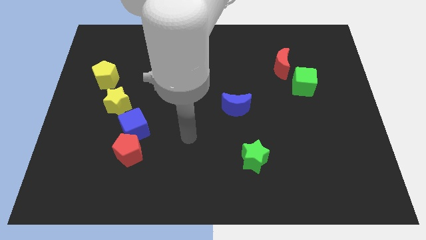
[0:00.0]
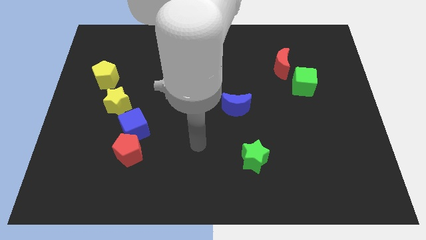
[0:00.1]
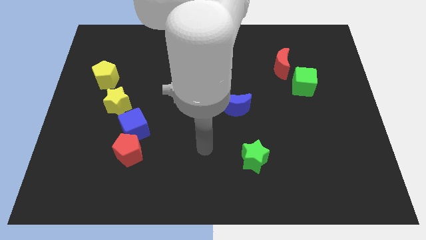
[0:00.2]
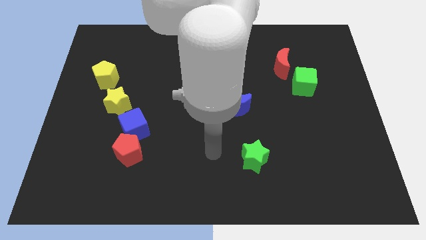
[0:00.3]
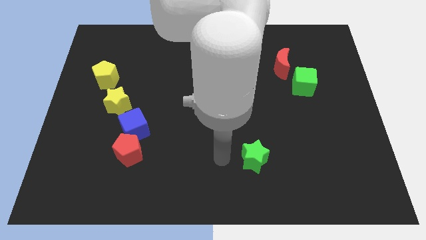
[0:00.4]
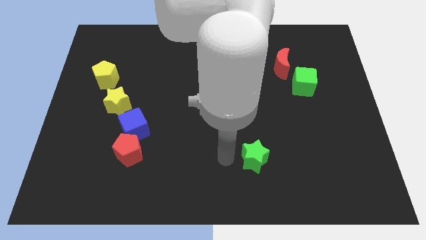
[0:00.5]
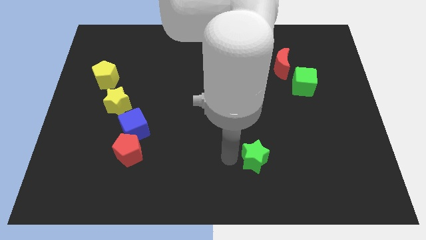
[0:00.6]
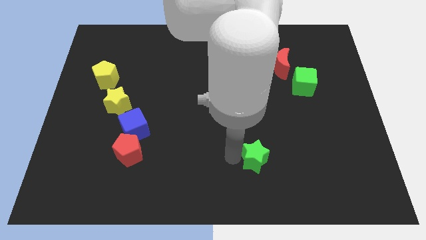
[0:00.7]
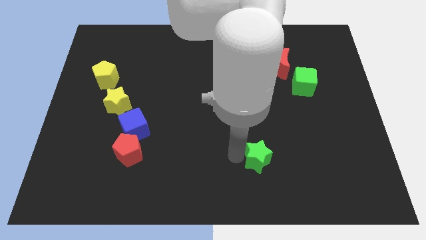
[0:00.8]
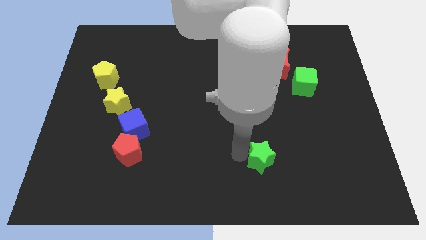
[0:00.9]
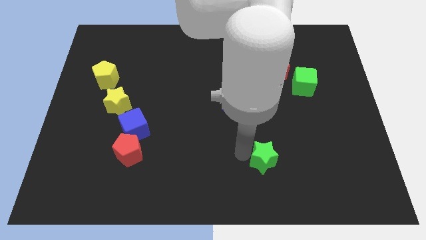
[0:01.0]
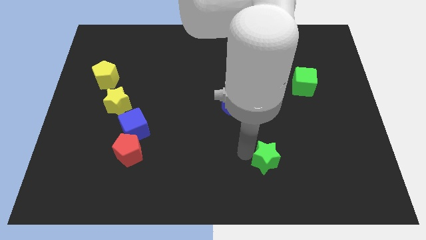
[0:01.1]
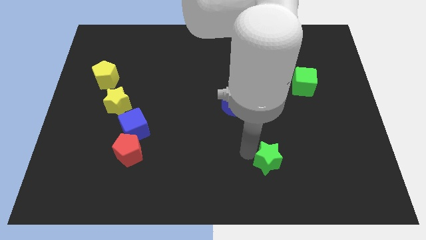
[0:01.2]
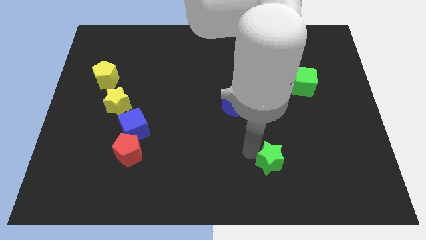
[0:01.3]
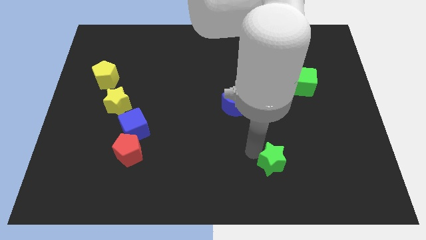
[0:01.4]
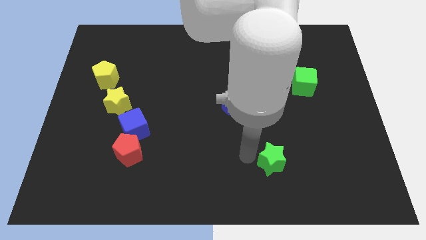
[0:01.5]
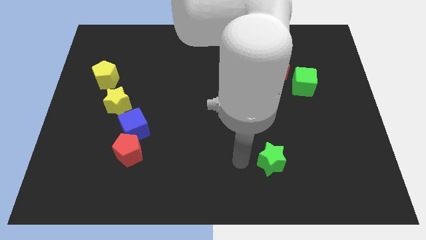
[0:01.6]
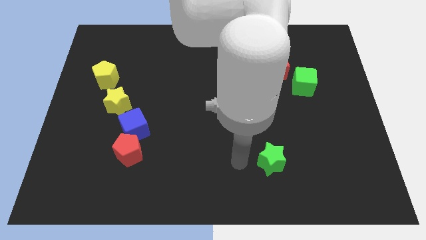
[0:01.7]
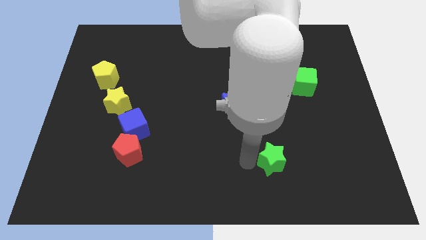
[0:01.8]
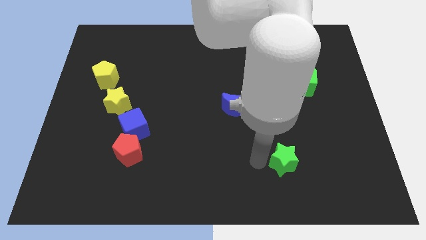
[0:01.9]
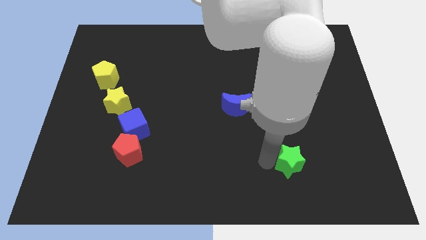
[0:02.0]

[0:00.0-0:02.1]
push the green star right slightly

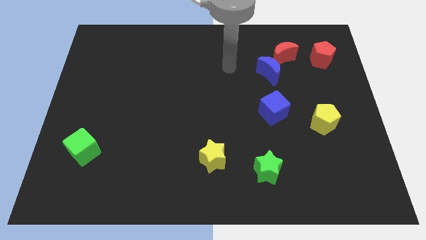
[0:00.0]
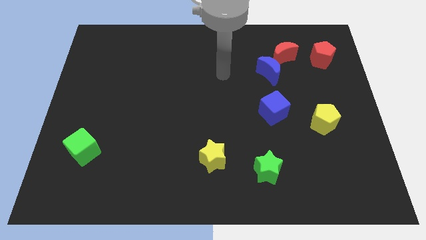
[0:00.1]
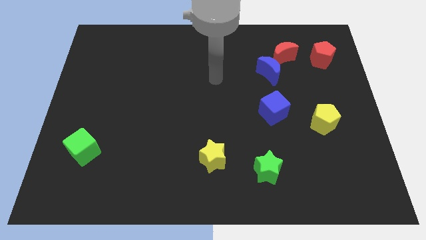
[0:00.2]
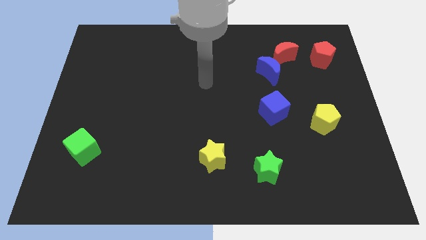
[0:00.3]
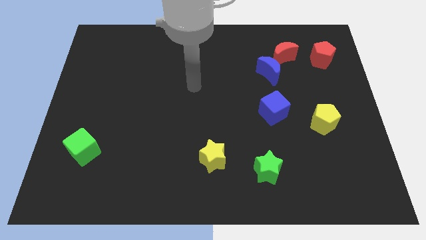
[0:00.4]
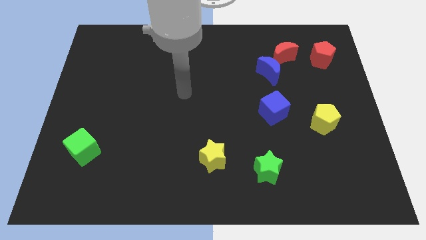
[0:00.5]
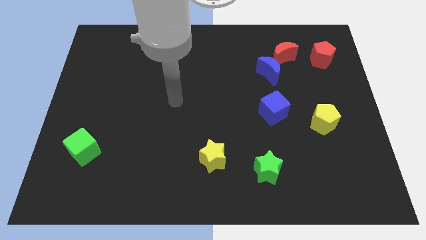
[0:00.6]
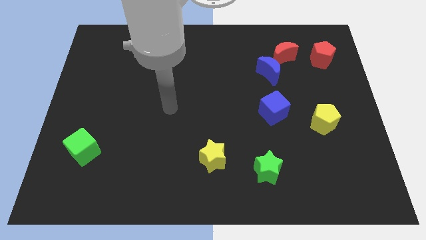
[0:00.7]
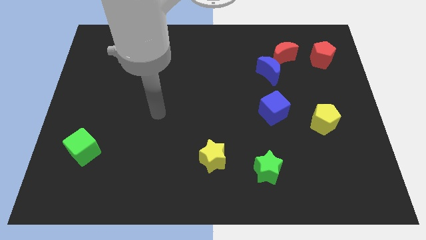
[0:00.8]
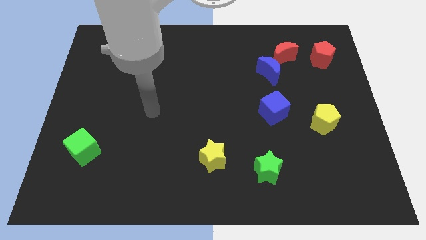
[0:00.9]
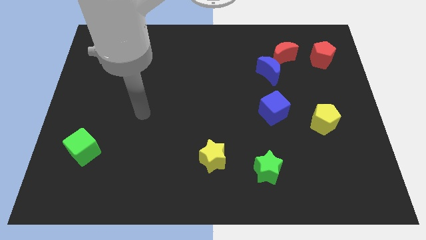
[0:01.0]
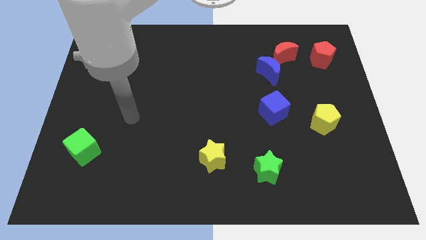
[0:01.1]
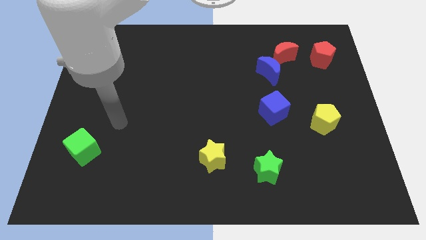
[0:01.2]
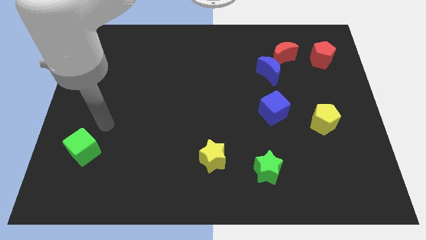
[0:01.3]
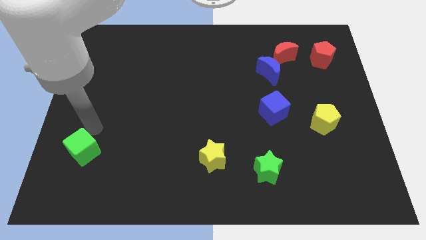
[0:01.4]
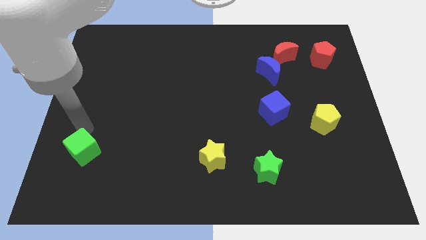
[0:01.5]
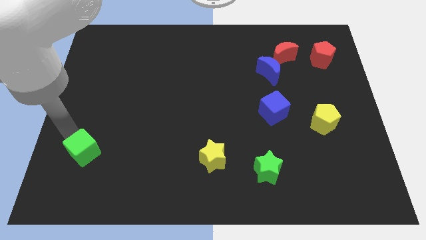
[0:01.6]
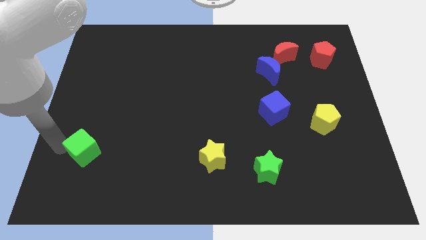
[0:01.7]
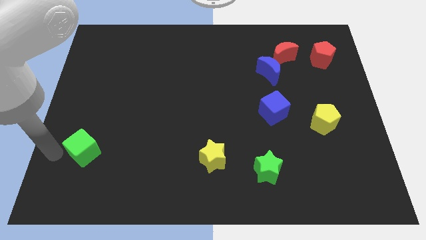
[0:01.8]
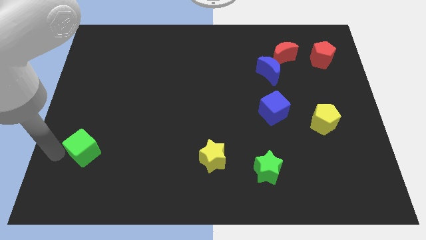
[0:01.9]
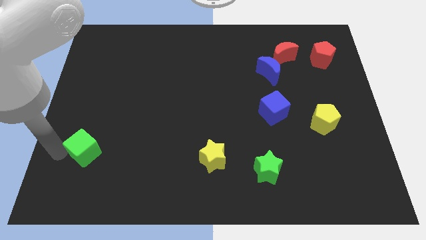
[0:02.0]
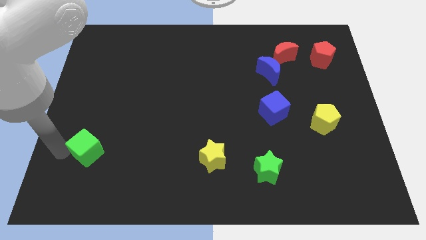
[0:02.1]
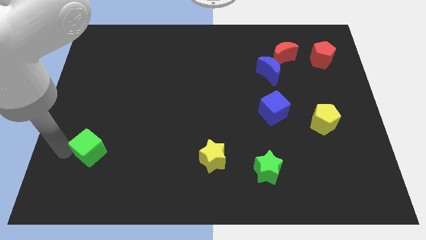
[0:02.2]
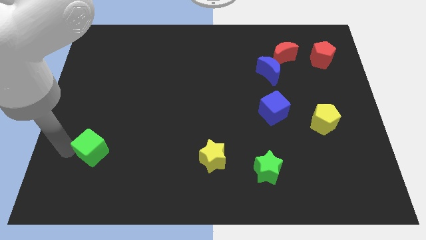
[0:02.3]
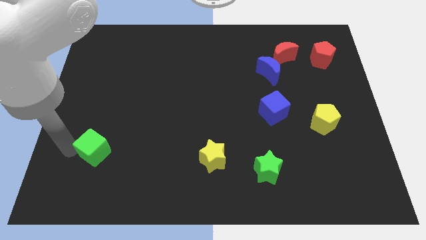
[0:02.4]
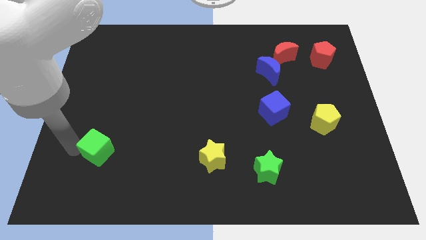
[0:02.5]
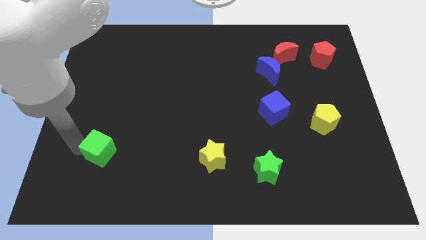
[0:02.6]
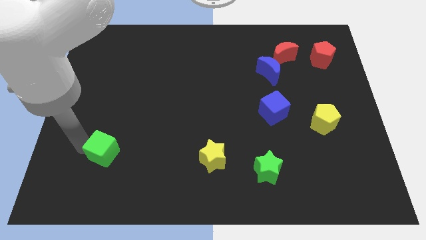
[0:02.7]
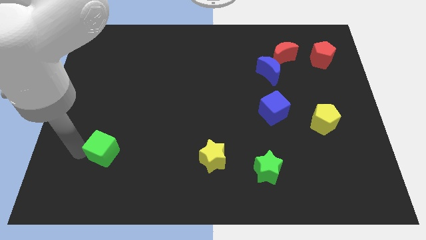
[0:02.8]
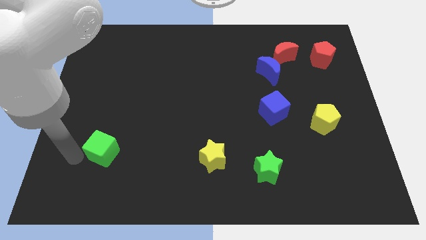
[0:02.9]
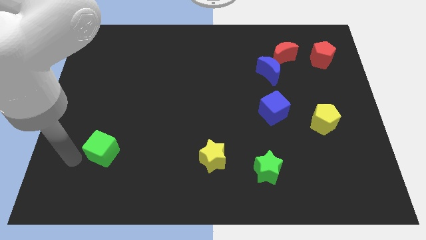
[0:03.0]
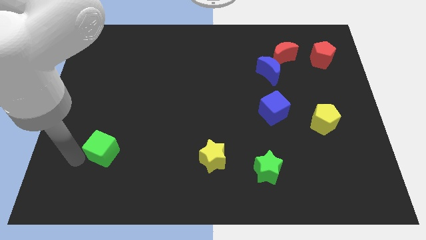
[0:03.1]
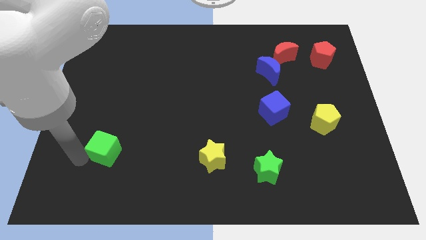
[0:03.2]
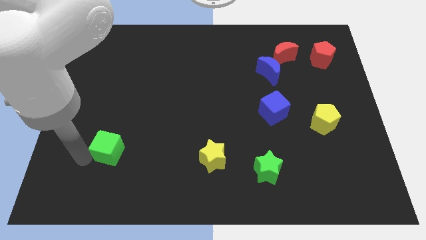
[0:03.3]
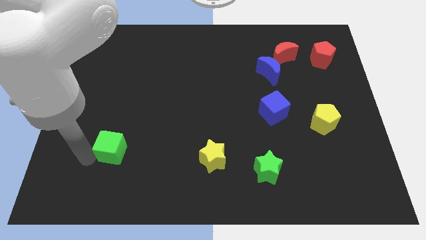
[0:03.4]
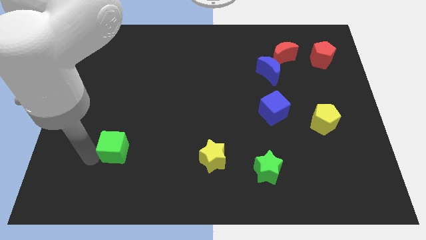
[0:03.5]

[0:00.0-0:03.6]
push the green cube right somewhat

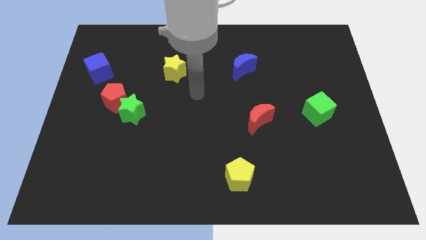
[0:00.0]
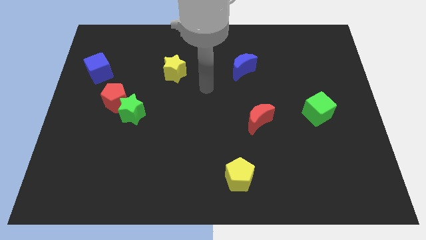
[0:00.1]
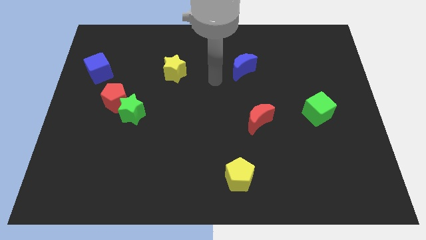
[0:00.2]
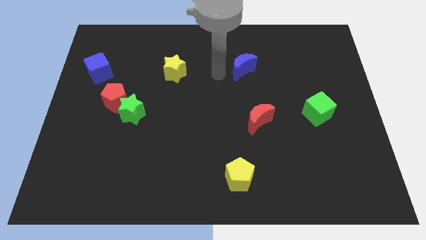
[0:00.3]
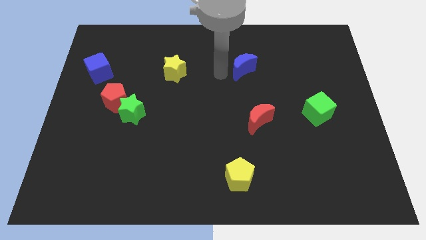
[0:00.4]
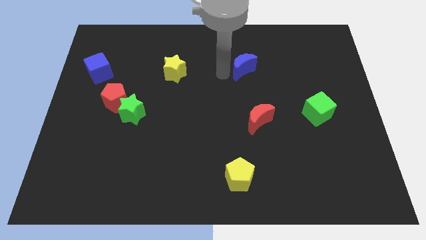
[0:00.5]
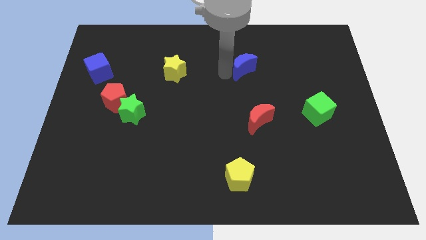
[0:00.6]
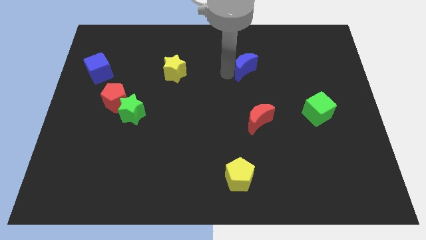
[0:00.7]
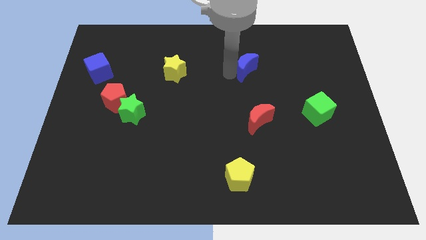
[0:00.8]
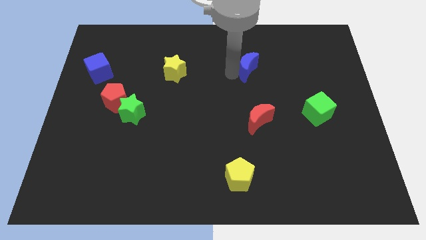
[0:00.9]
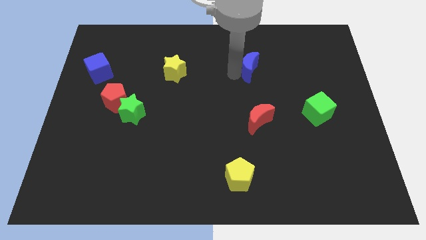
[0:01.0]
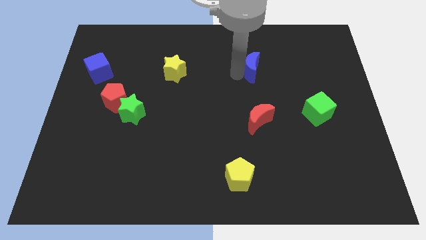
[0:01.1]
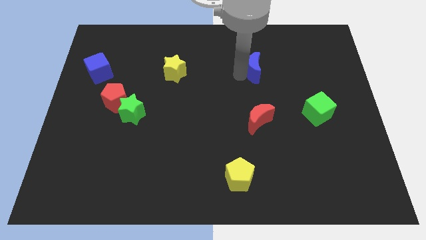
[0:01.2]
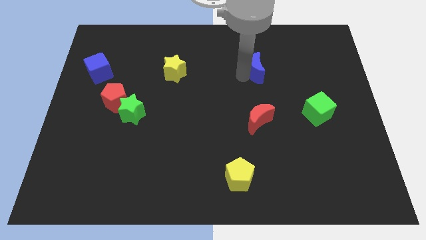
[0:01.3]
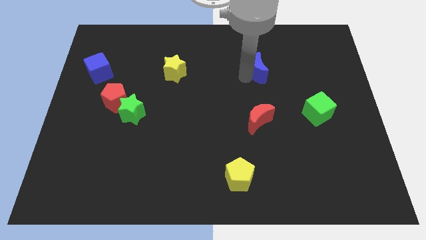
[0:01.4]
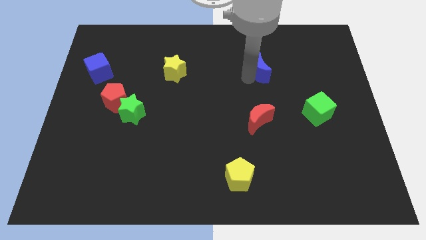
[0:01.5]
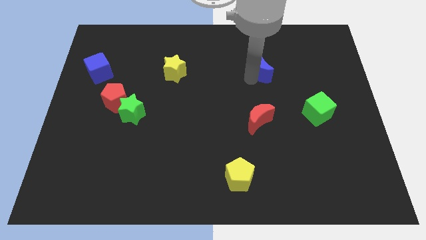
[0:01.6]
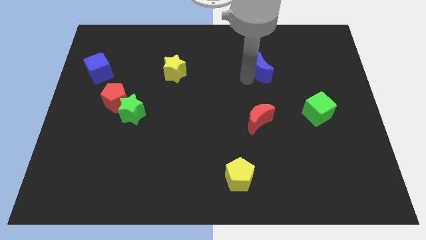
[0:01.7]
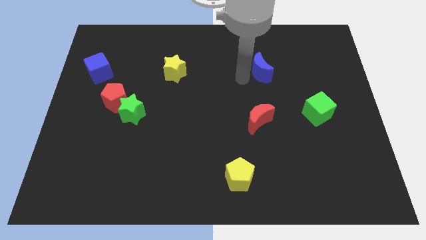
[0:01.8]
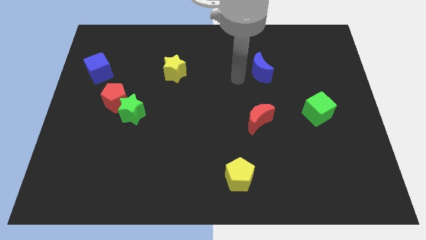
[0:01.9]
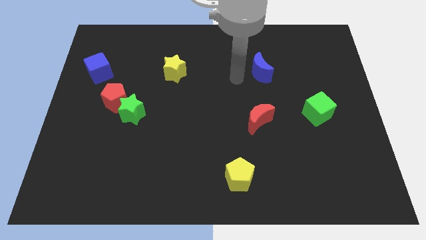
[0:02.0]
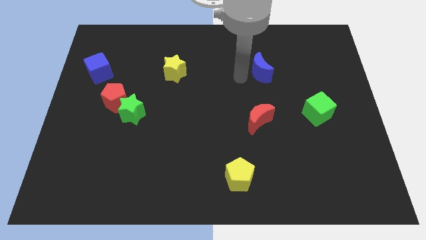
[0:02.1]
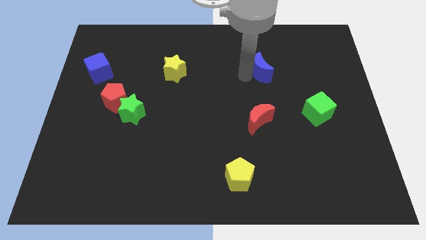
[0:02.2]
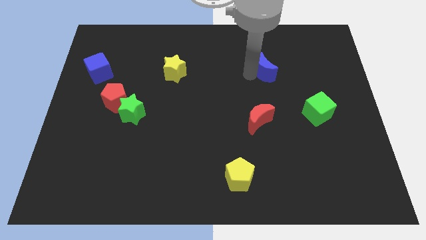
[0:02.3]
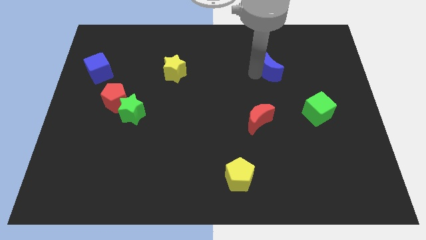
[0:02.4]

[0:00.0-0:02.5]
slightly push the blue moon to the right
